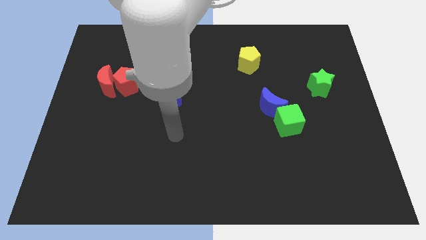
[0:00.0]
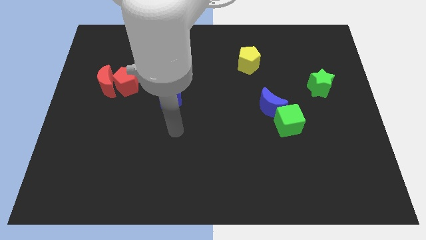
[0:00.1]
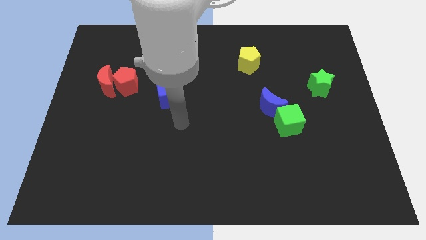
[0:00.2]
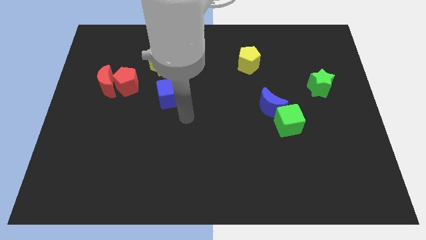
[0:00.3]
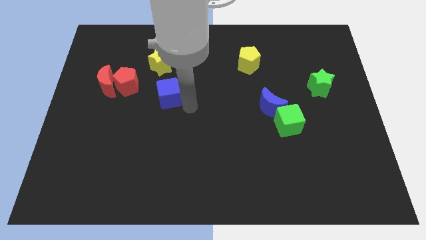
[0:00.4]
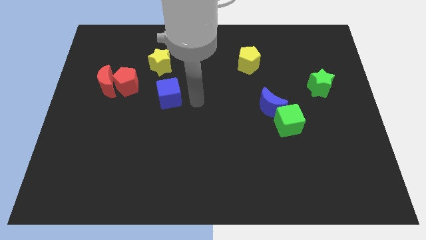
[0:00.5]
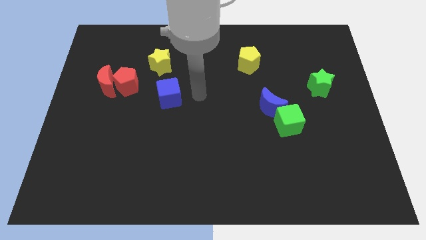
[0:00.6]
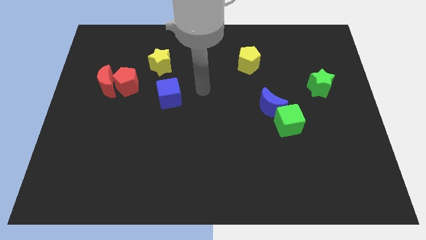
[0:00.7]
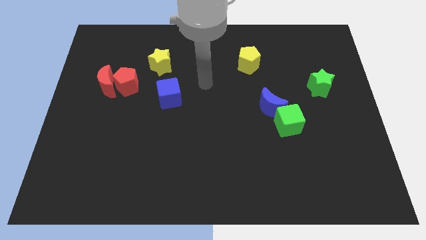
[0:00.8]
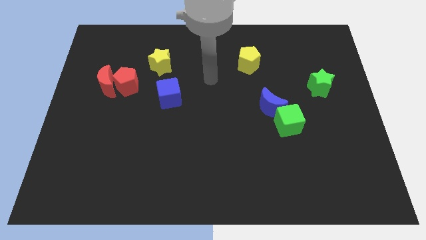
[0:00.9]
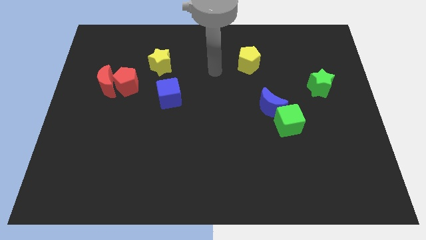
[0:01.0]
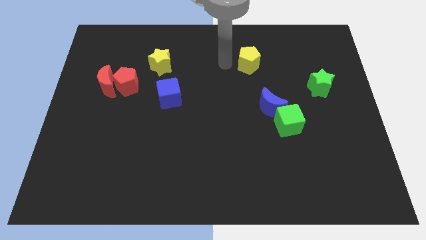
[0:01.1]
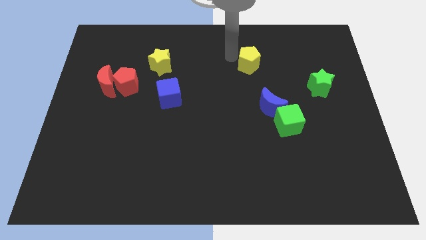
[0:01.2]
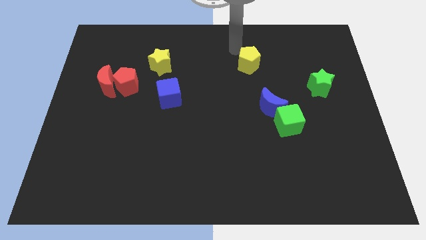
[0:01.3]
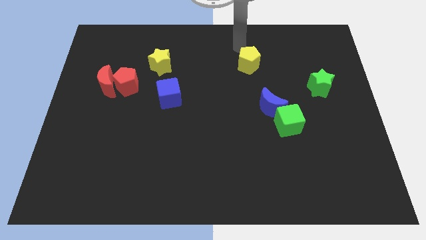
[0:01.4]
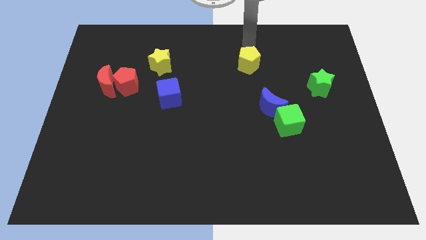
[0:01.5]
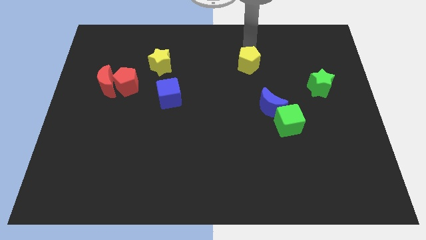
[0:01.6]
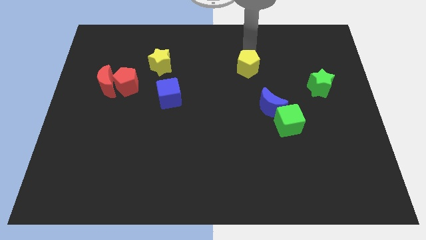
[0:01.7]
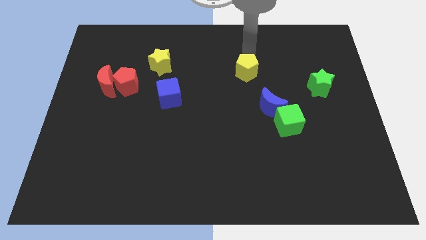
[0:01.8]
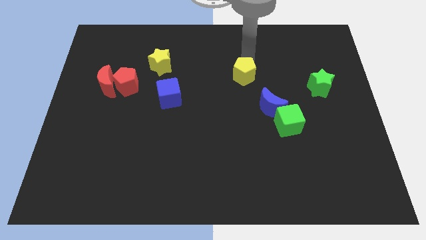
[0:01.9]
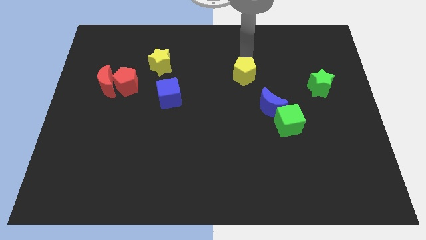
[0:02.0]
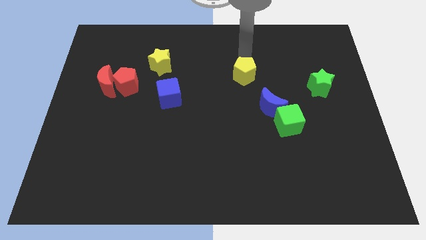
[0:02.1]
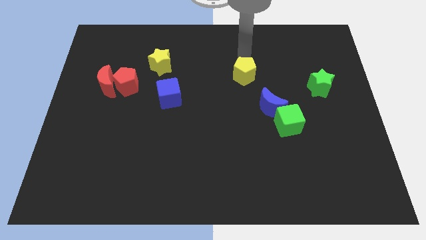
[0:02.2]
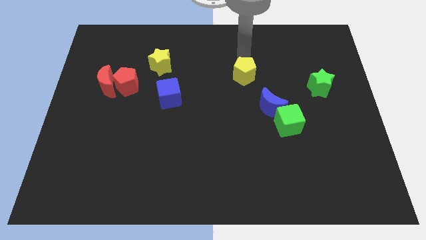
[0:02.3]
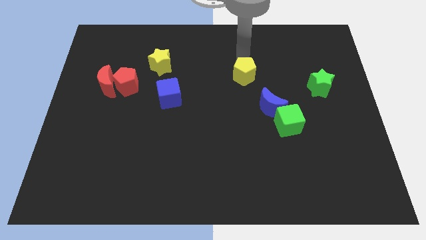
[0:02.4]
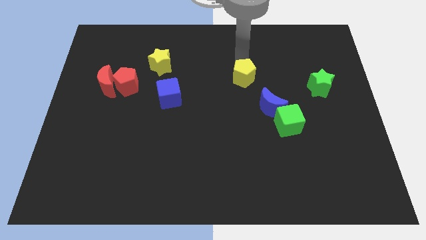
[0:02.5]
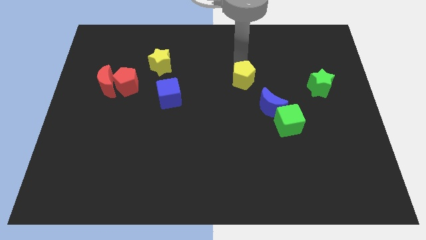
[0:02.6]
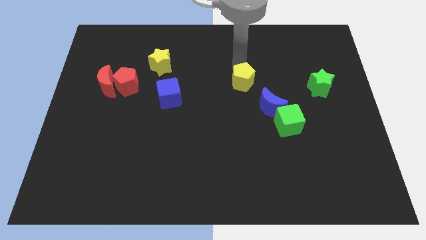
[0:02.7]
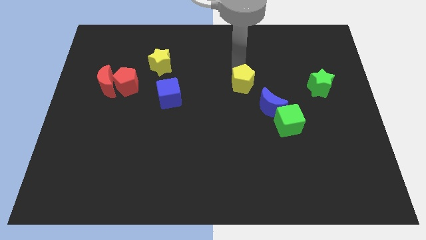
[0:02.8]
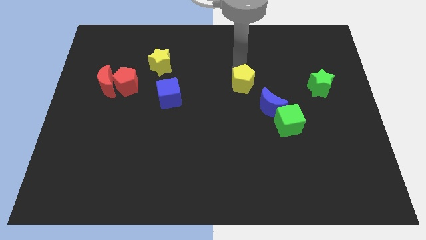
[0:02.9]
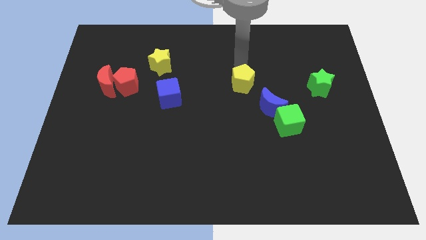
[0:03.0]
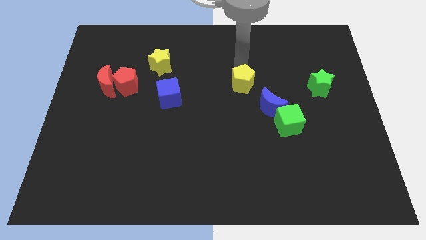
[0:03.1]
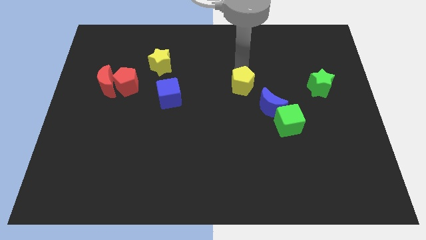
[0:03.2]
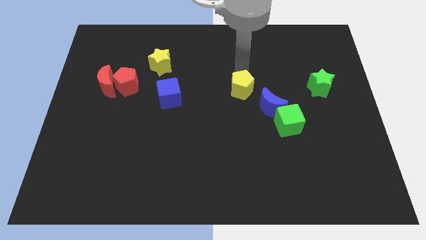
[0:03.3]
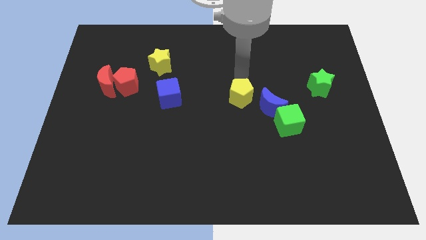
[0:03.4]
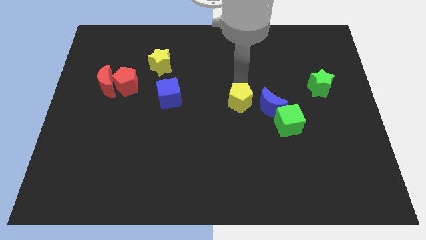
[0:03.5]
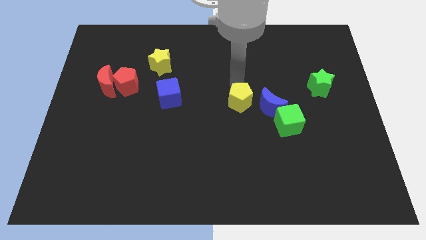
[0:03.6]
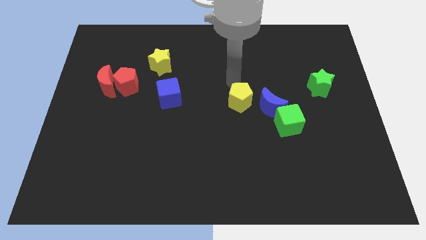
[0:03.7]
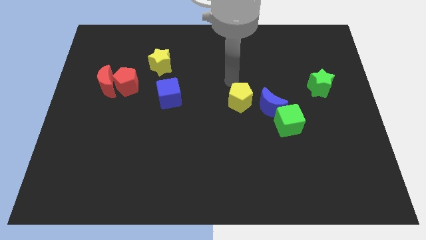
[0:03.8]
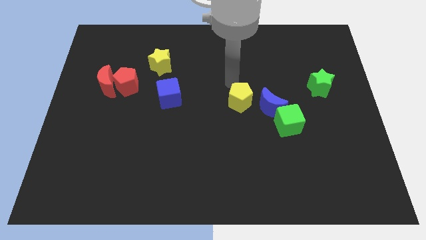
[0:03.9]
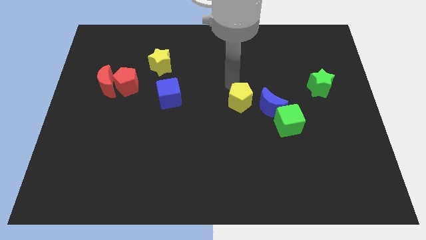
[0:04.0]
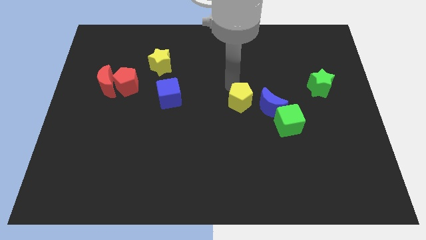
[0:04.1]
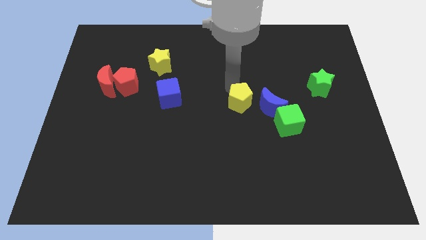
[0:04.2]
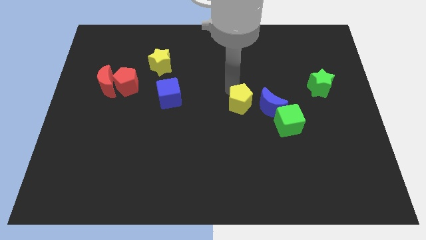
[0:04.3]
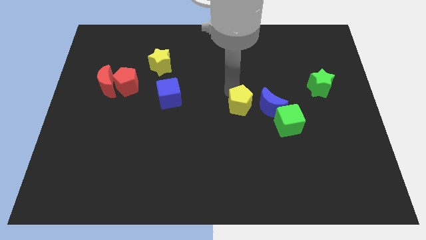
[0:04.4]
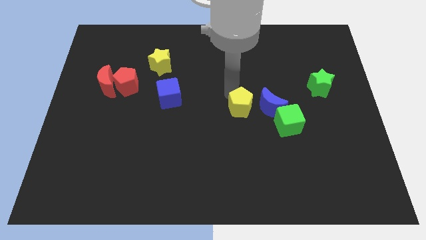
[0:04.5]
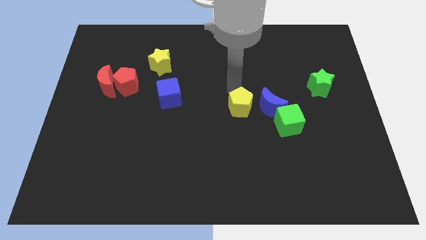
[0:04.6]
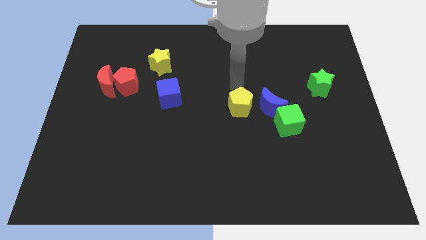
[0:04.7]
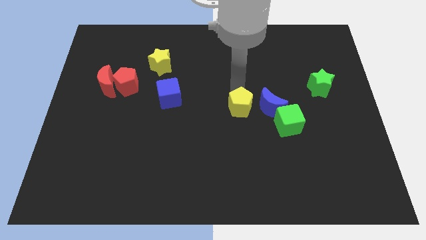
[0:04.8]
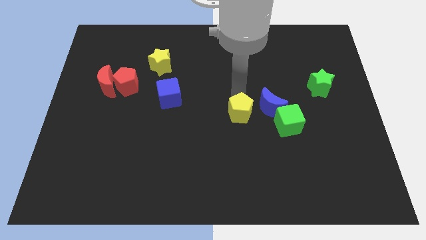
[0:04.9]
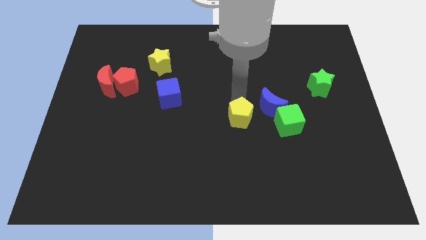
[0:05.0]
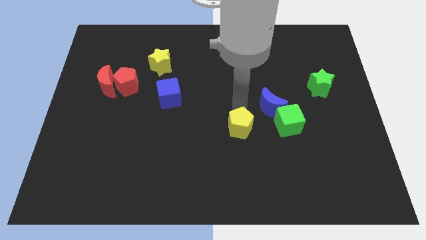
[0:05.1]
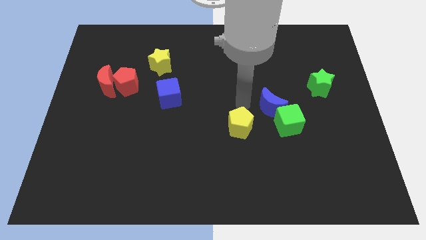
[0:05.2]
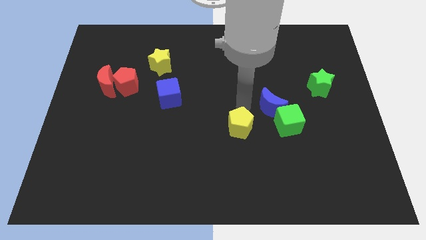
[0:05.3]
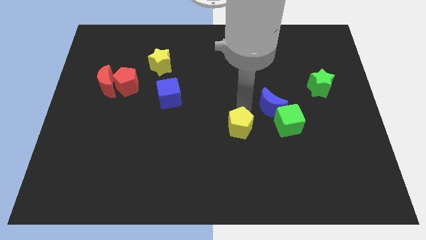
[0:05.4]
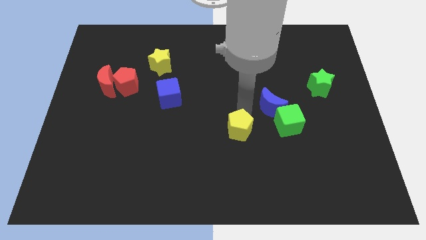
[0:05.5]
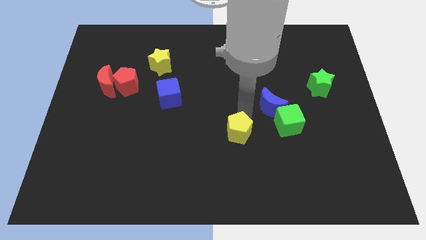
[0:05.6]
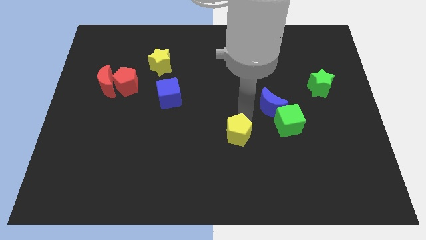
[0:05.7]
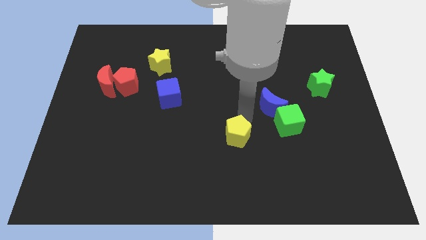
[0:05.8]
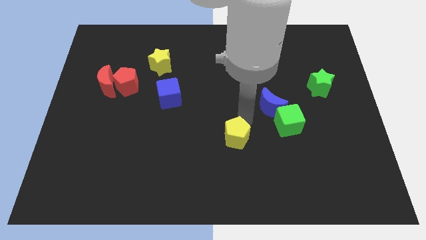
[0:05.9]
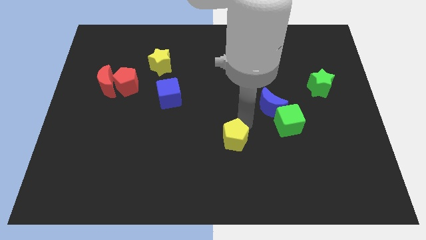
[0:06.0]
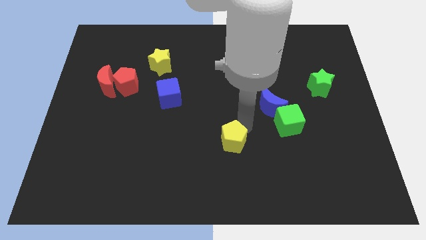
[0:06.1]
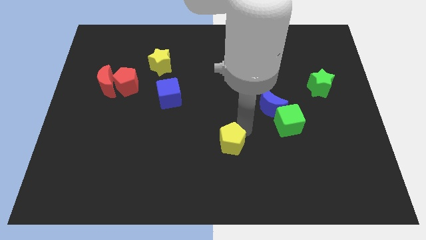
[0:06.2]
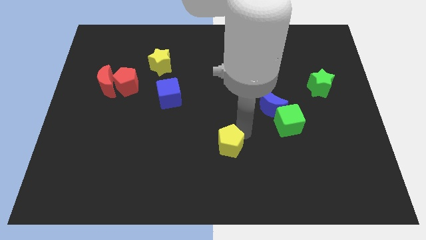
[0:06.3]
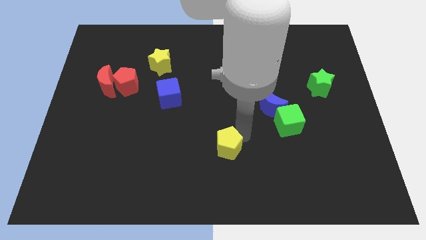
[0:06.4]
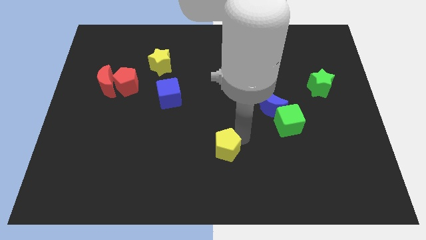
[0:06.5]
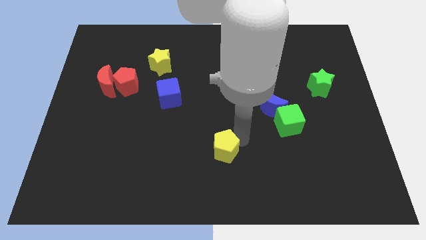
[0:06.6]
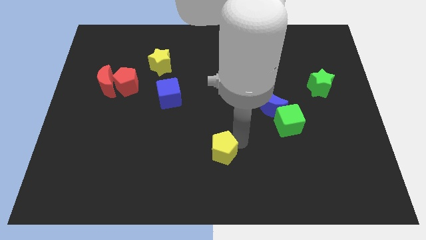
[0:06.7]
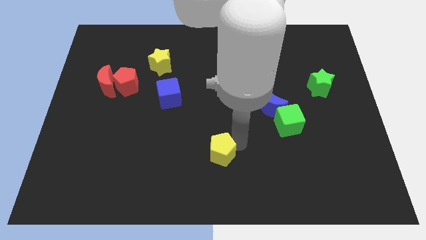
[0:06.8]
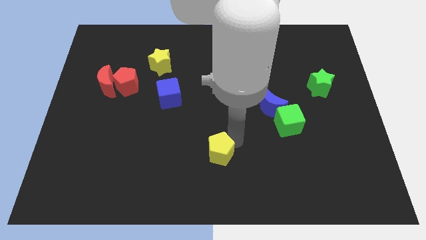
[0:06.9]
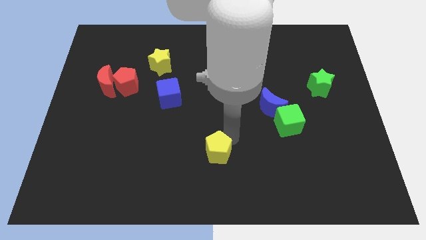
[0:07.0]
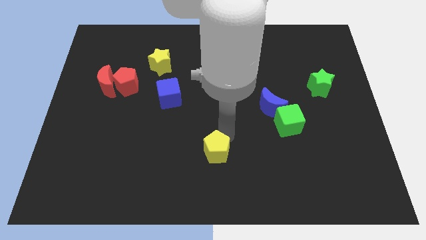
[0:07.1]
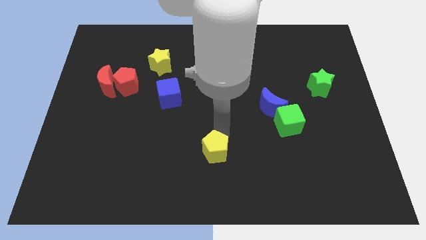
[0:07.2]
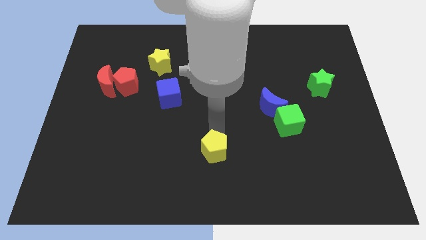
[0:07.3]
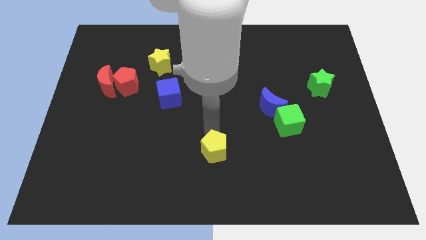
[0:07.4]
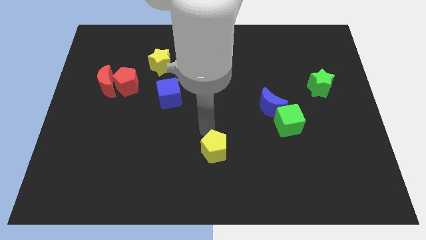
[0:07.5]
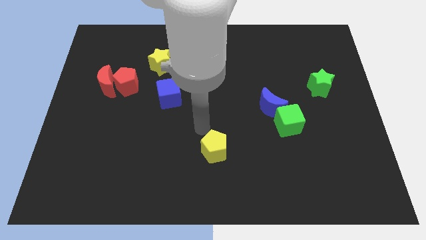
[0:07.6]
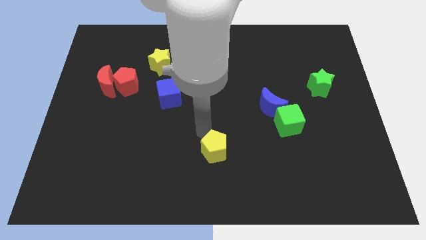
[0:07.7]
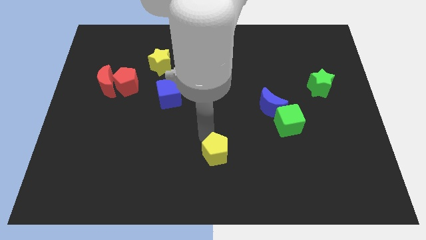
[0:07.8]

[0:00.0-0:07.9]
slide the yellow pentagon to the bottom side
